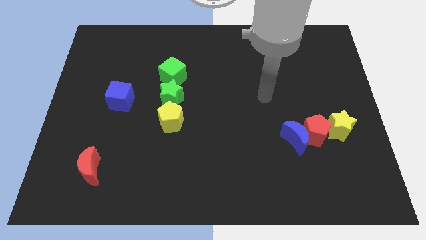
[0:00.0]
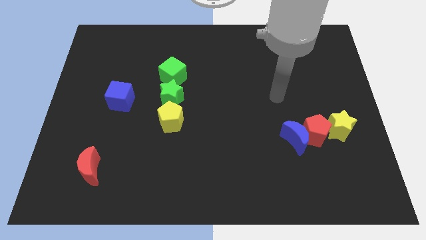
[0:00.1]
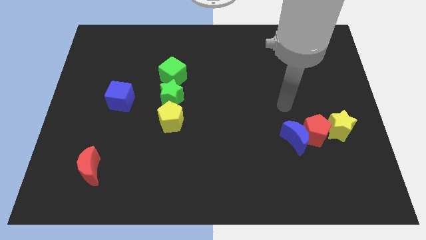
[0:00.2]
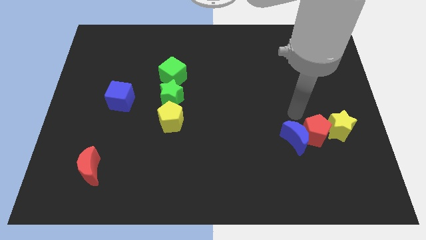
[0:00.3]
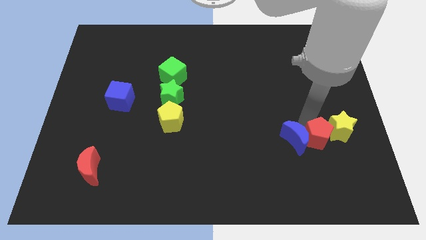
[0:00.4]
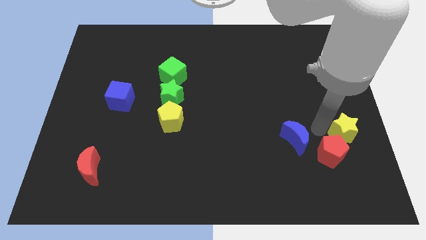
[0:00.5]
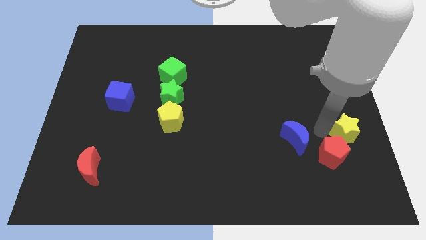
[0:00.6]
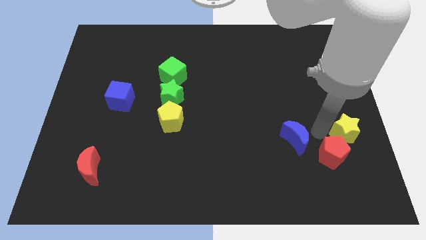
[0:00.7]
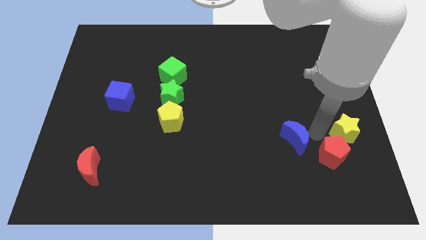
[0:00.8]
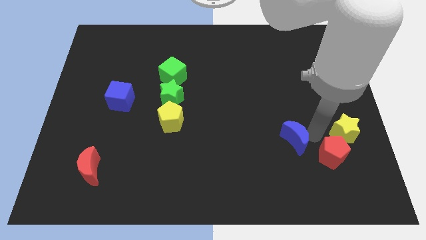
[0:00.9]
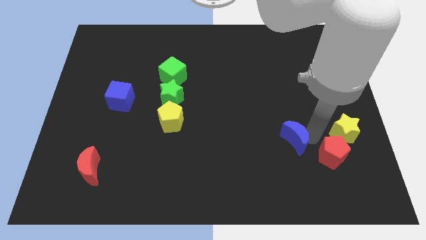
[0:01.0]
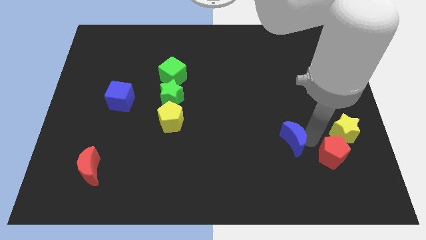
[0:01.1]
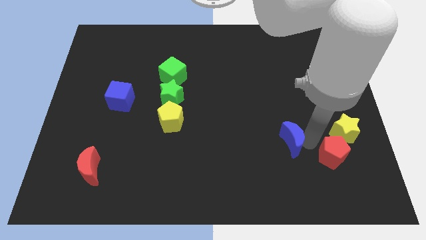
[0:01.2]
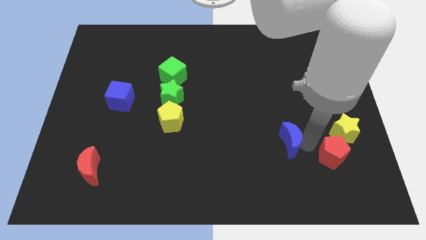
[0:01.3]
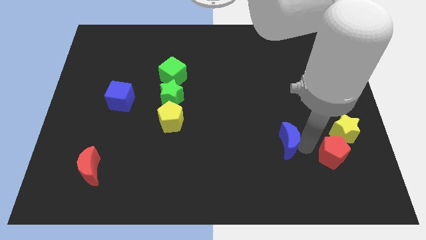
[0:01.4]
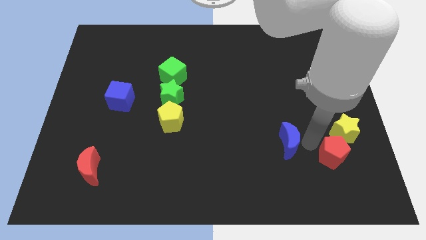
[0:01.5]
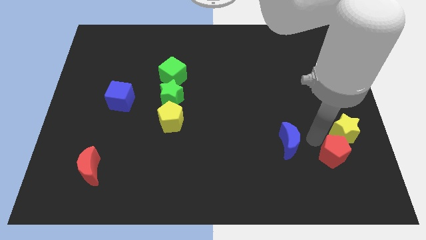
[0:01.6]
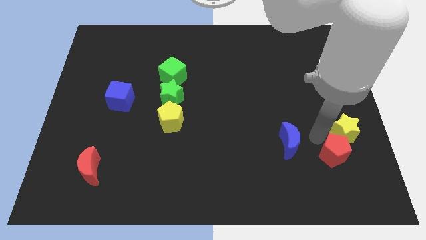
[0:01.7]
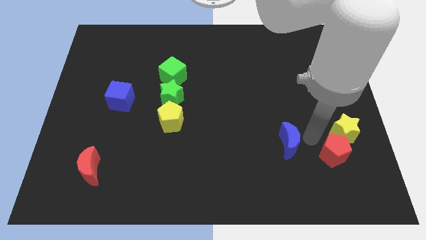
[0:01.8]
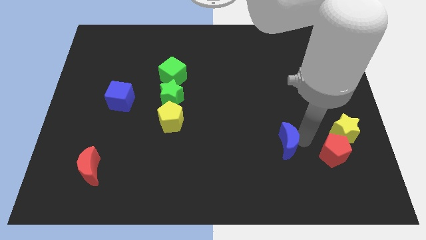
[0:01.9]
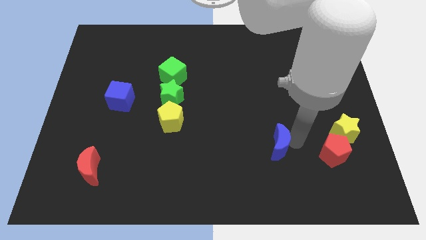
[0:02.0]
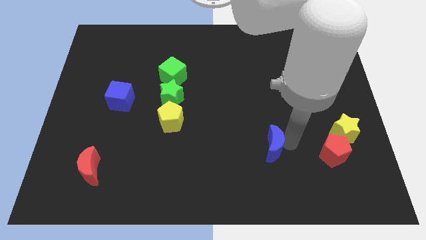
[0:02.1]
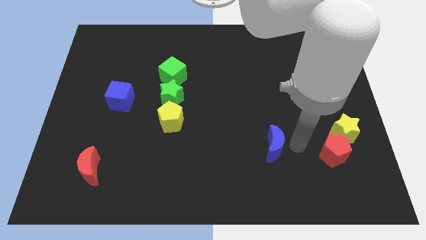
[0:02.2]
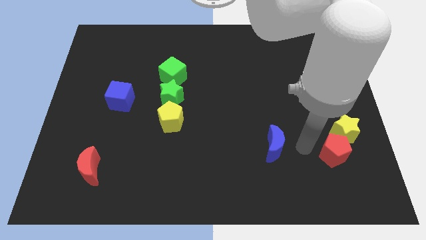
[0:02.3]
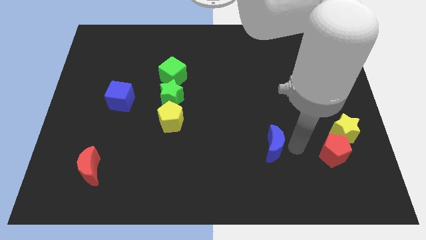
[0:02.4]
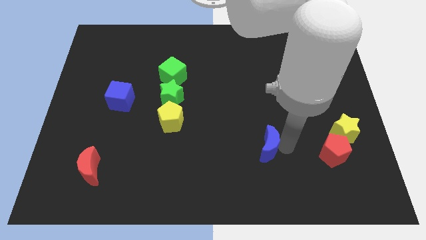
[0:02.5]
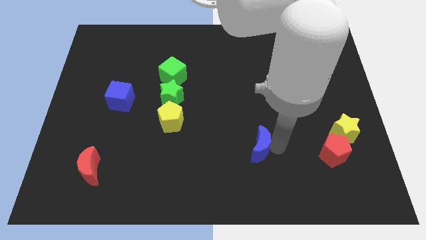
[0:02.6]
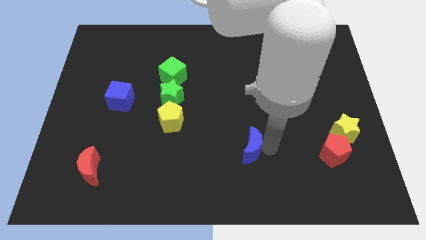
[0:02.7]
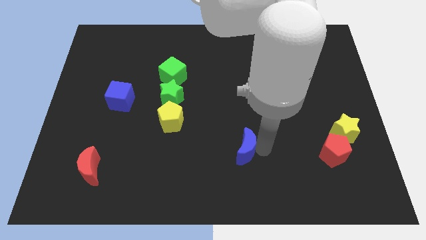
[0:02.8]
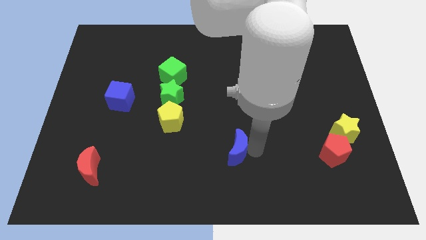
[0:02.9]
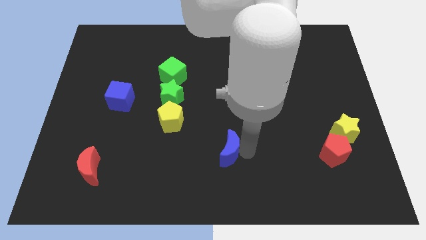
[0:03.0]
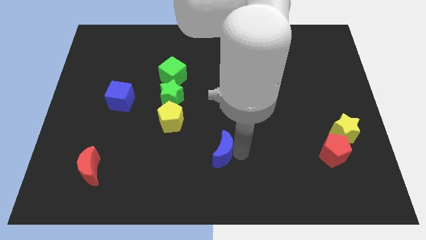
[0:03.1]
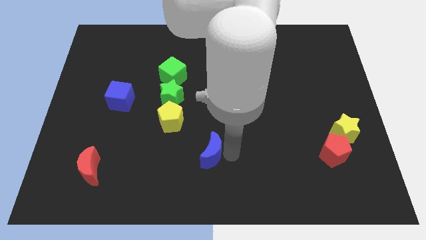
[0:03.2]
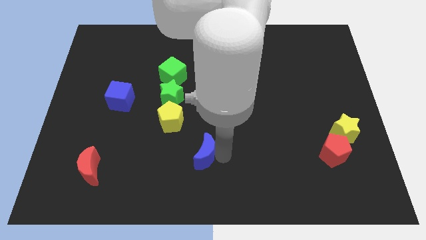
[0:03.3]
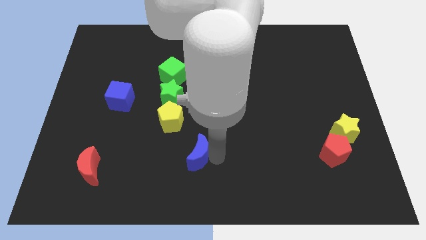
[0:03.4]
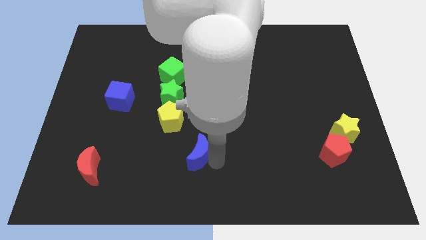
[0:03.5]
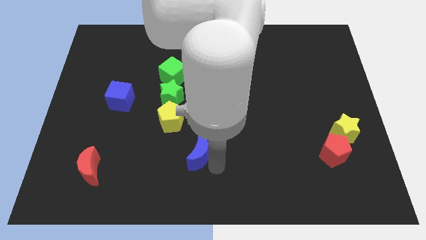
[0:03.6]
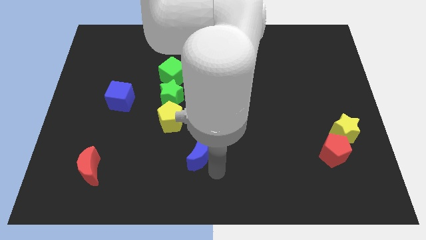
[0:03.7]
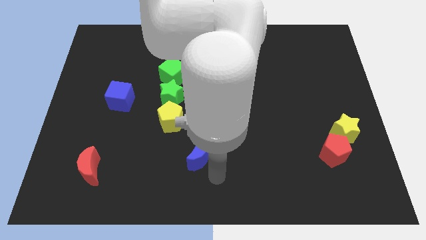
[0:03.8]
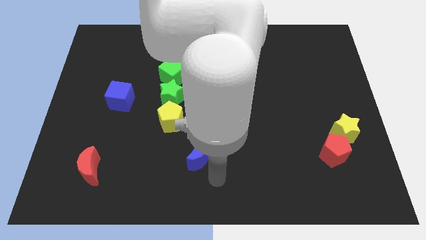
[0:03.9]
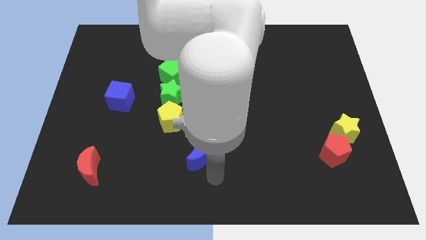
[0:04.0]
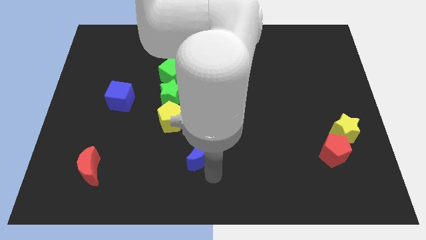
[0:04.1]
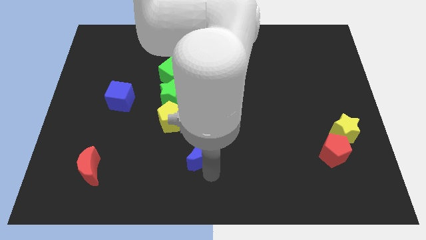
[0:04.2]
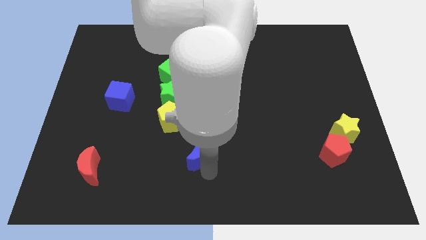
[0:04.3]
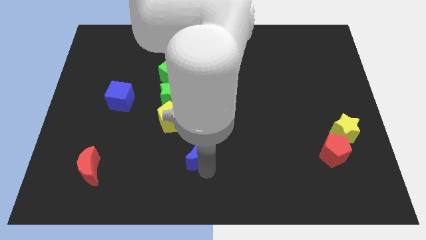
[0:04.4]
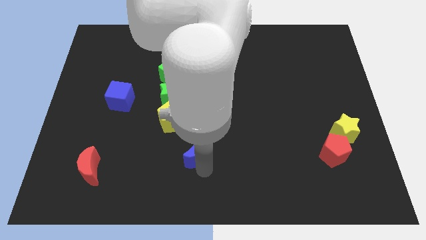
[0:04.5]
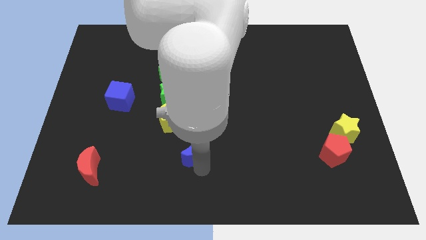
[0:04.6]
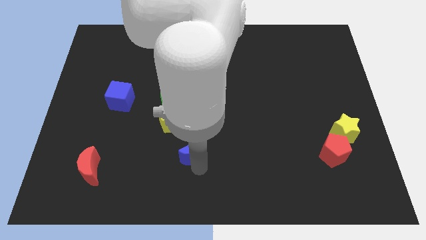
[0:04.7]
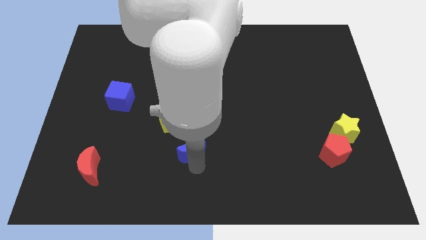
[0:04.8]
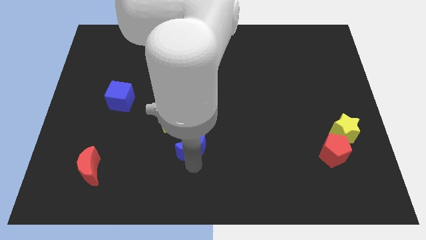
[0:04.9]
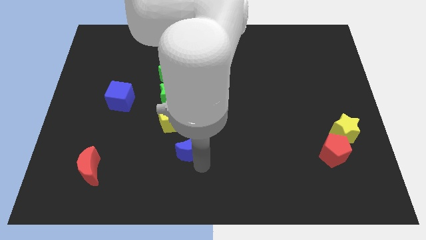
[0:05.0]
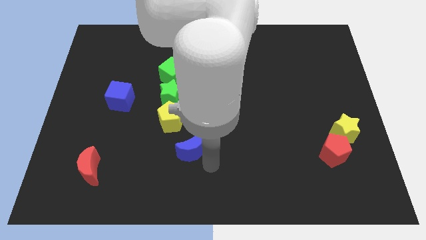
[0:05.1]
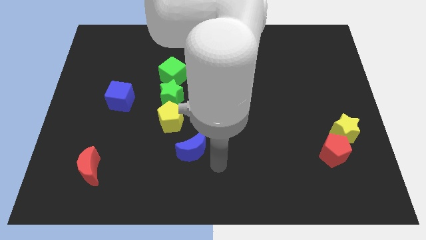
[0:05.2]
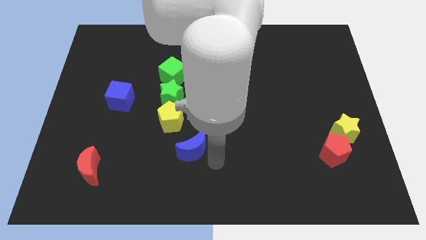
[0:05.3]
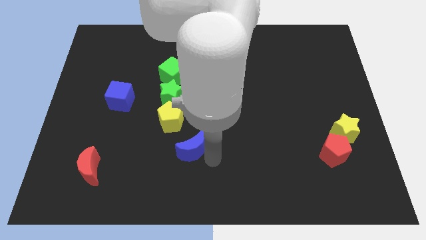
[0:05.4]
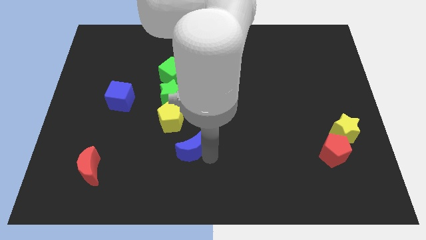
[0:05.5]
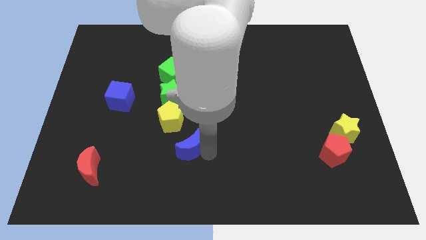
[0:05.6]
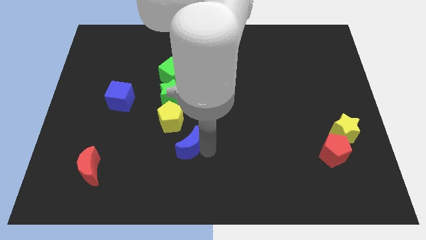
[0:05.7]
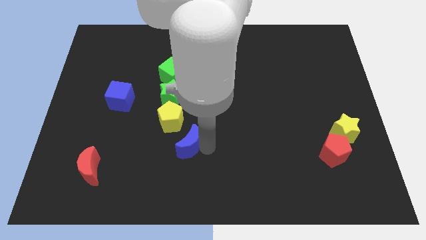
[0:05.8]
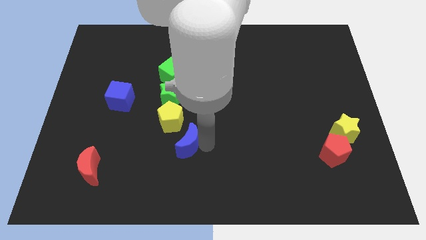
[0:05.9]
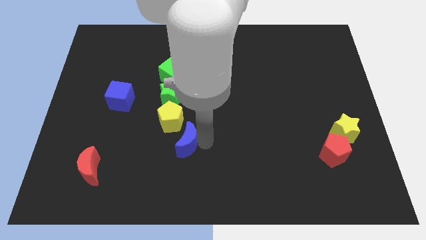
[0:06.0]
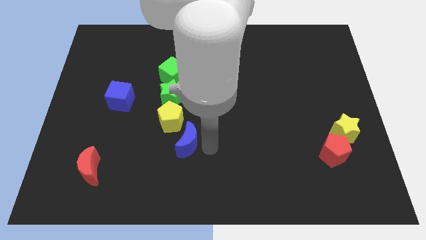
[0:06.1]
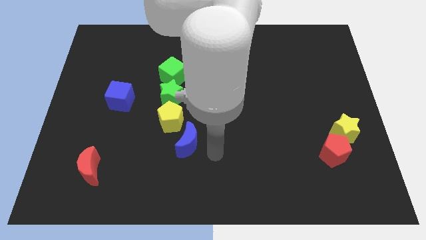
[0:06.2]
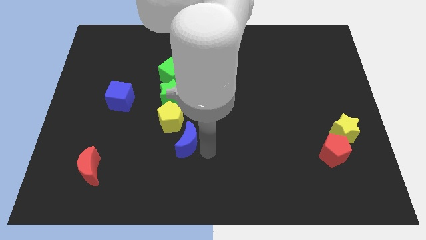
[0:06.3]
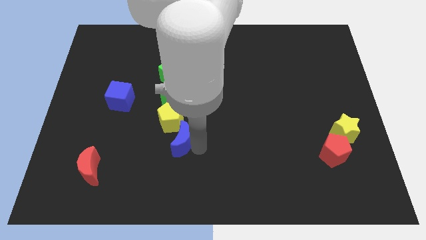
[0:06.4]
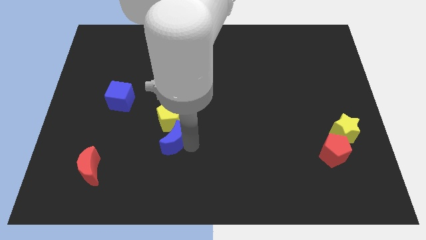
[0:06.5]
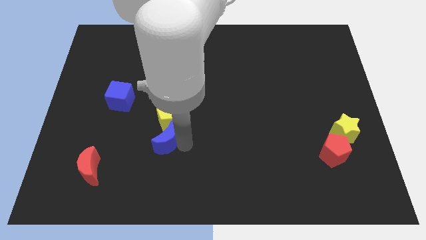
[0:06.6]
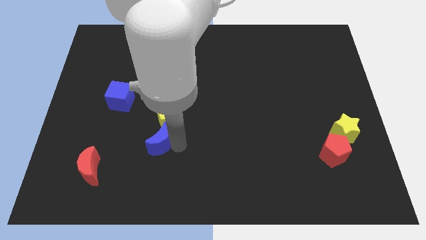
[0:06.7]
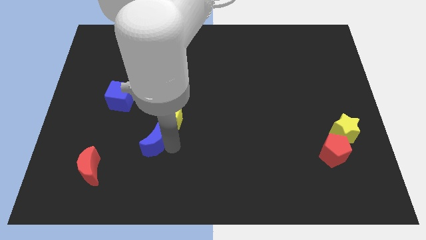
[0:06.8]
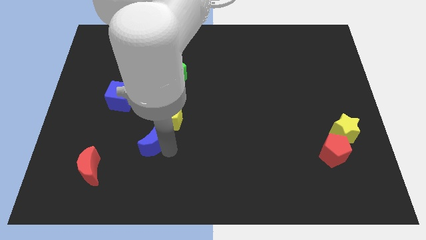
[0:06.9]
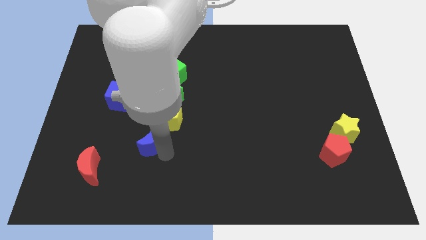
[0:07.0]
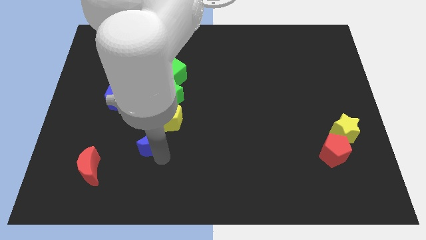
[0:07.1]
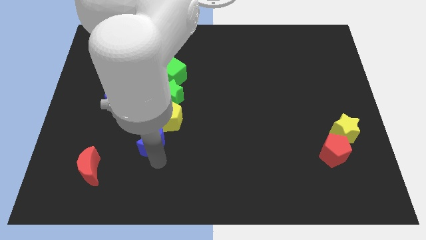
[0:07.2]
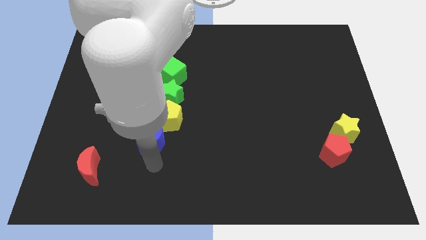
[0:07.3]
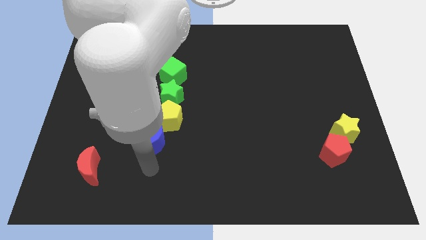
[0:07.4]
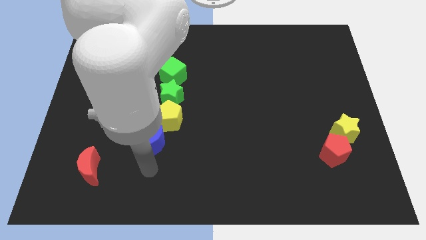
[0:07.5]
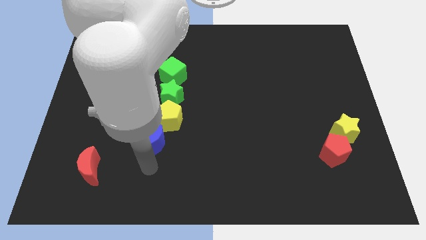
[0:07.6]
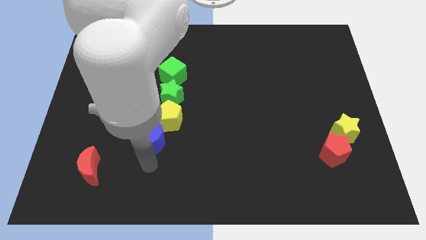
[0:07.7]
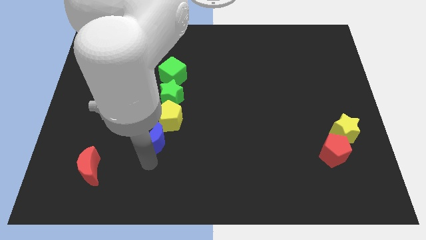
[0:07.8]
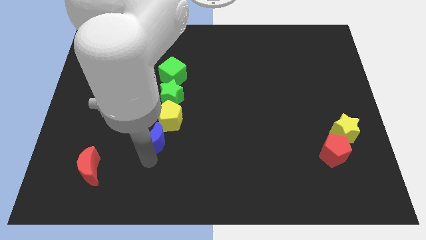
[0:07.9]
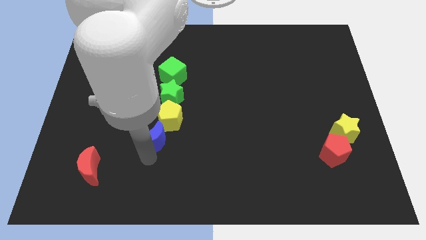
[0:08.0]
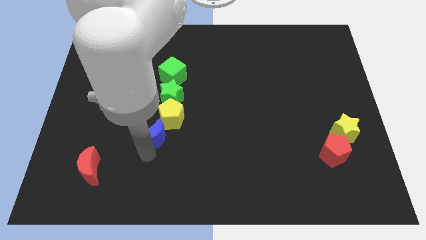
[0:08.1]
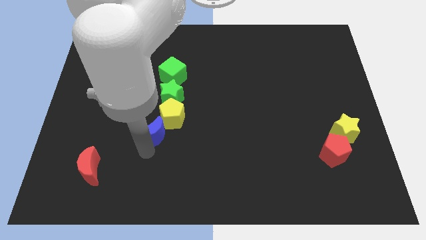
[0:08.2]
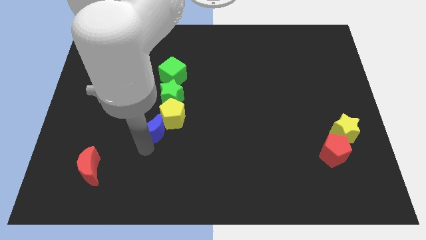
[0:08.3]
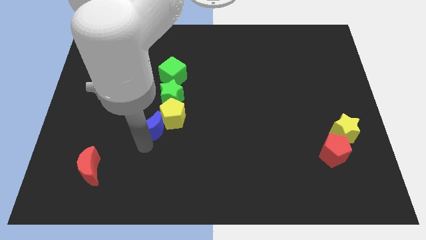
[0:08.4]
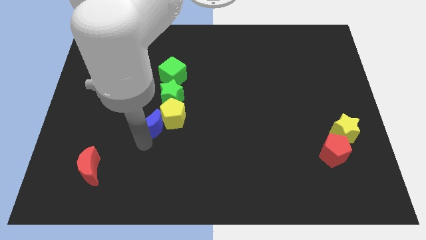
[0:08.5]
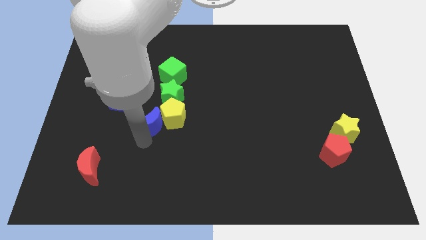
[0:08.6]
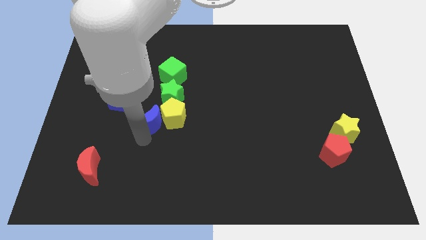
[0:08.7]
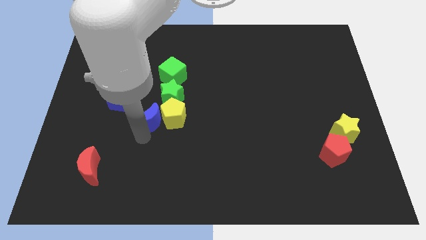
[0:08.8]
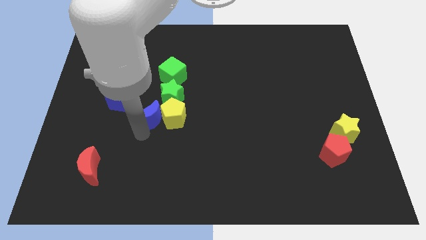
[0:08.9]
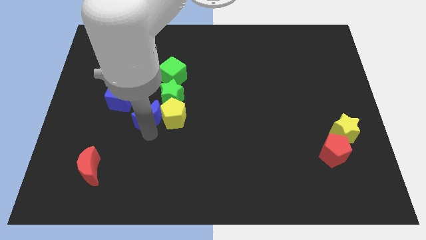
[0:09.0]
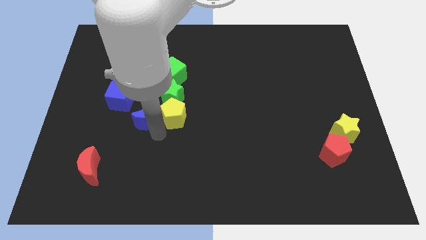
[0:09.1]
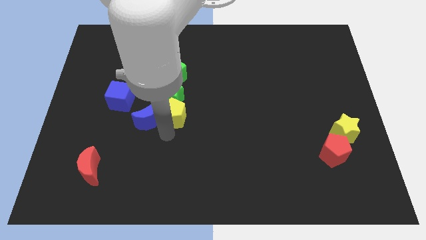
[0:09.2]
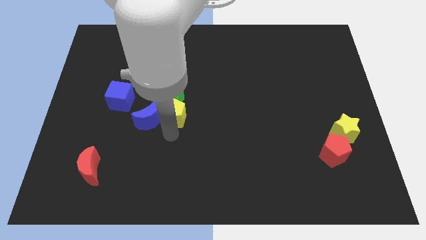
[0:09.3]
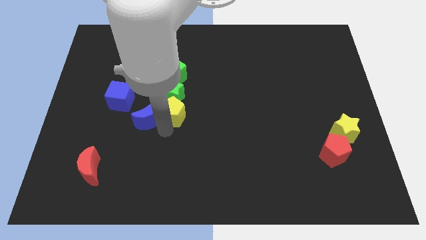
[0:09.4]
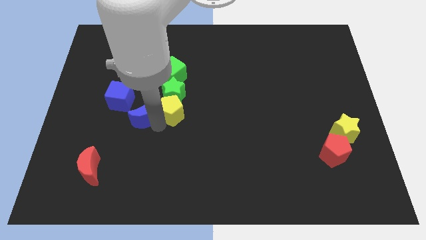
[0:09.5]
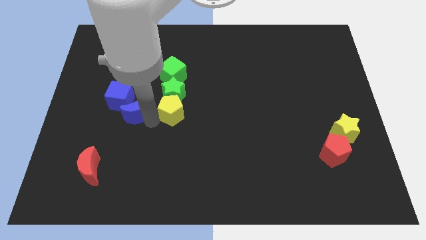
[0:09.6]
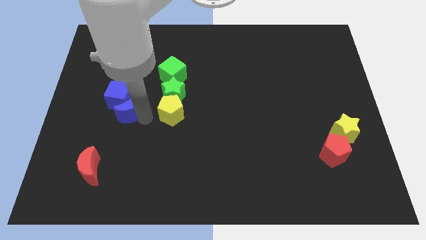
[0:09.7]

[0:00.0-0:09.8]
slide the blue moon to the blue cube
